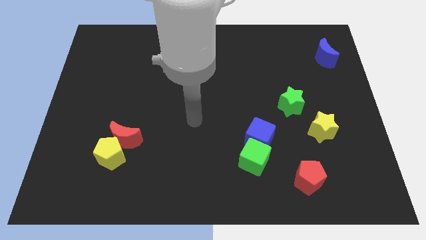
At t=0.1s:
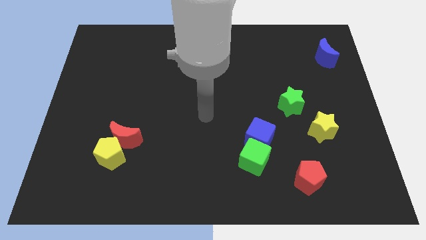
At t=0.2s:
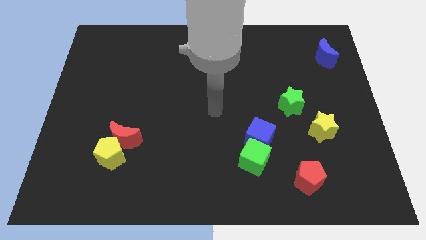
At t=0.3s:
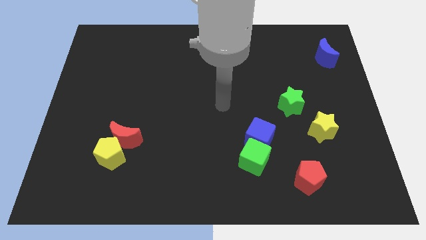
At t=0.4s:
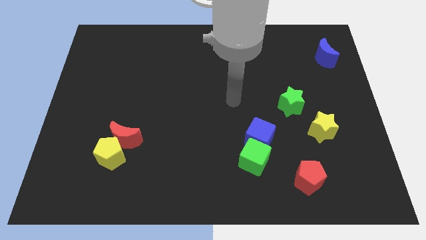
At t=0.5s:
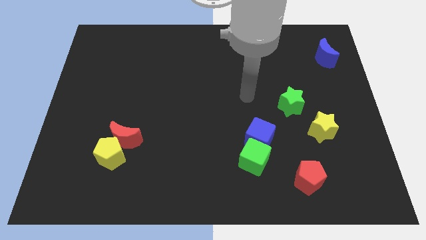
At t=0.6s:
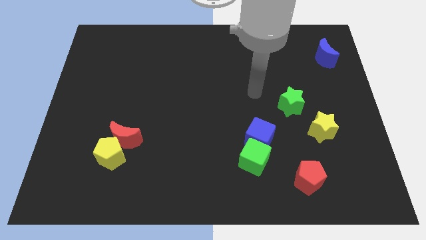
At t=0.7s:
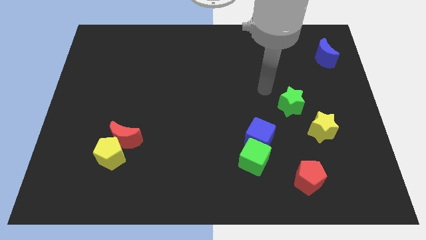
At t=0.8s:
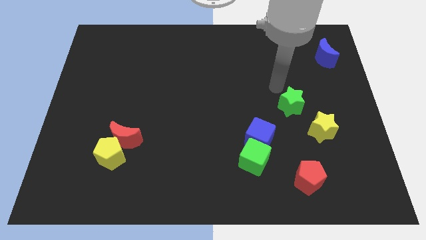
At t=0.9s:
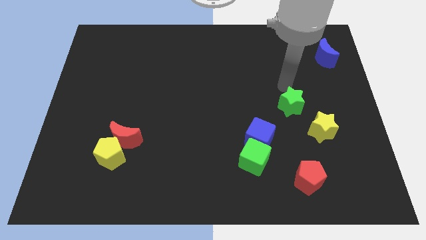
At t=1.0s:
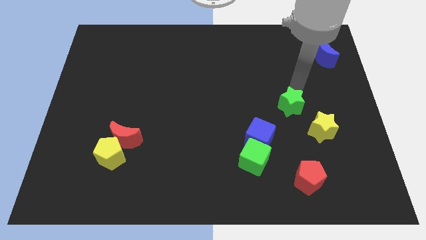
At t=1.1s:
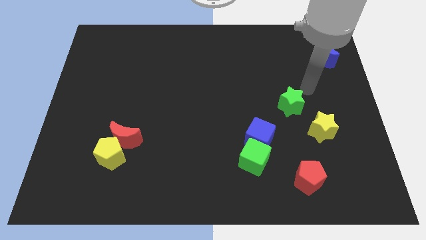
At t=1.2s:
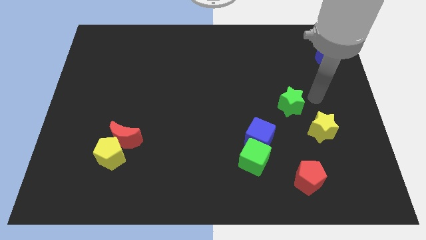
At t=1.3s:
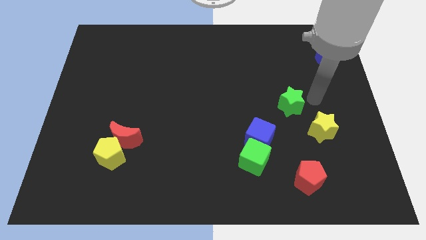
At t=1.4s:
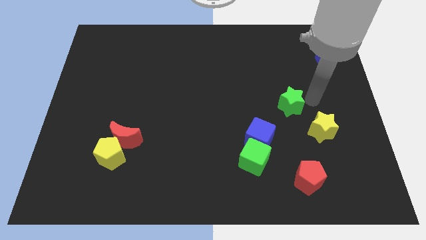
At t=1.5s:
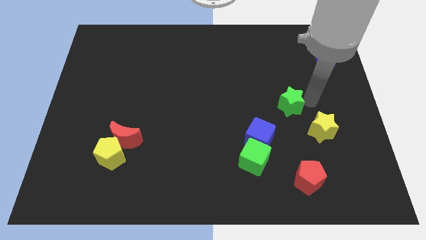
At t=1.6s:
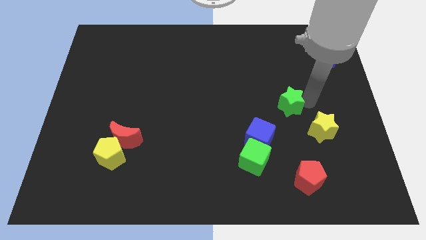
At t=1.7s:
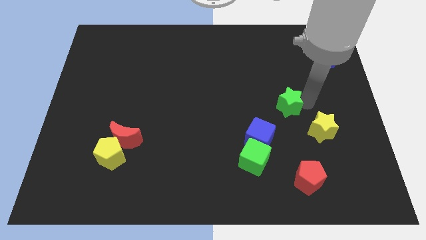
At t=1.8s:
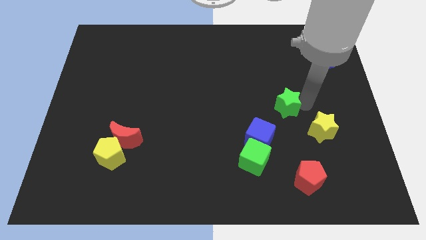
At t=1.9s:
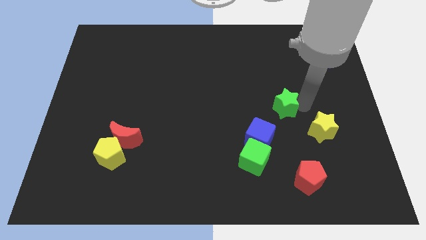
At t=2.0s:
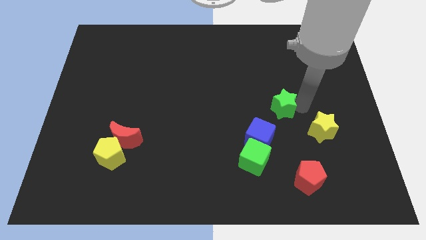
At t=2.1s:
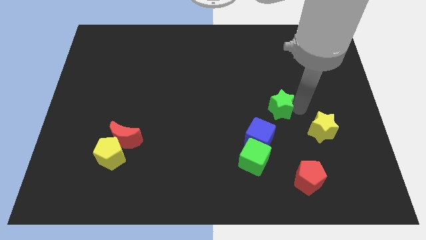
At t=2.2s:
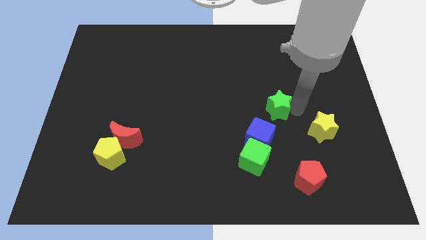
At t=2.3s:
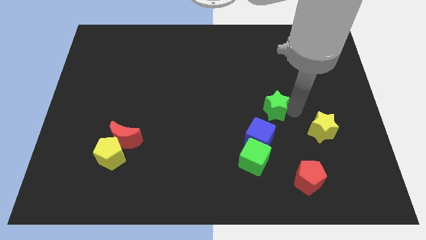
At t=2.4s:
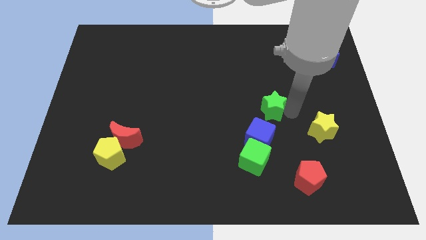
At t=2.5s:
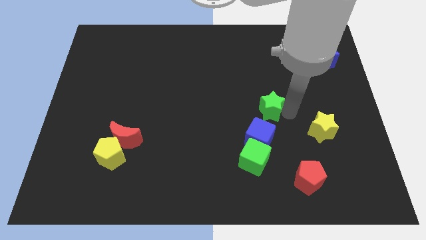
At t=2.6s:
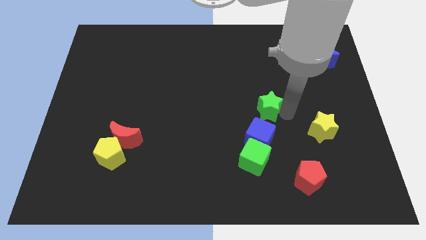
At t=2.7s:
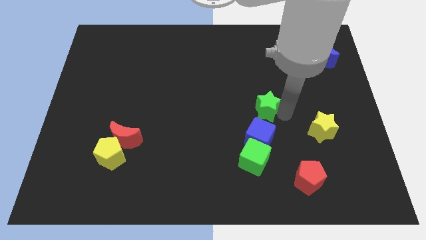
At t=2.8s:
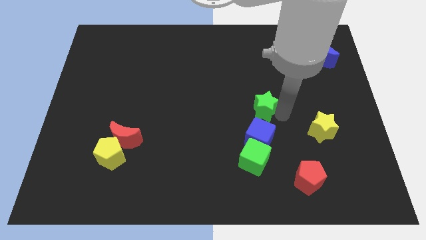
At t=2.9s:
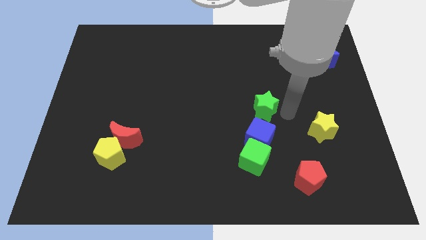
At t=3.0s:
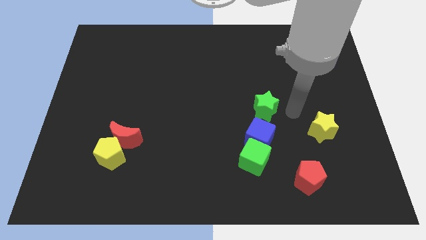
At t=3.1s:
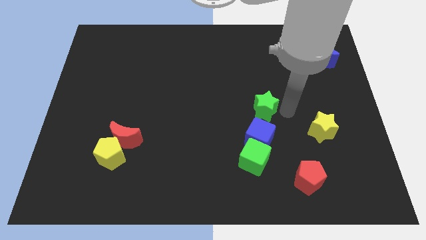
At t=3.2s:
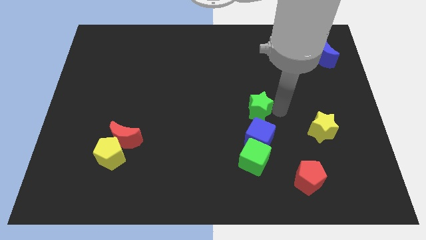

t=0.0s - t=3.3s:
slightly move the green star to the left

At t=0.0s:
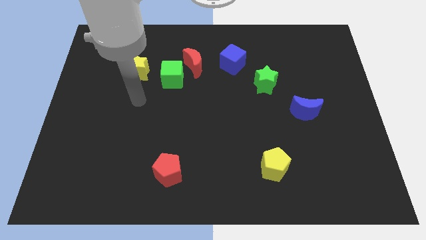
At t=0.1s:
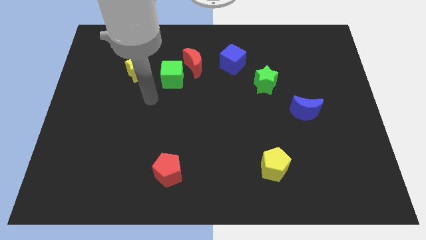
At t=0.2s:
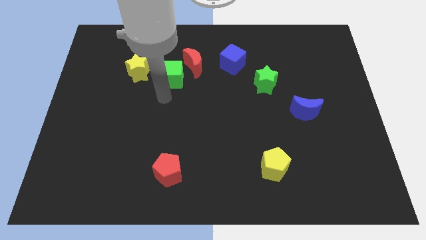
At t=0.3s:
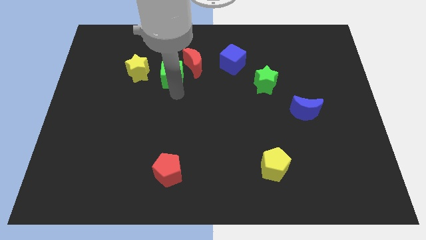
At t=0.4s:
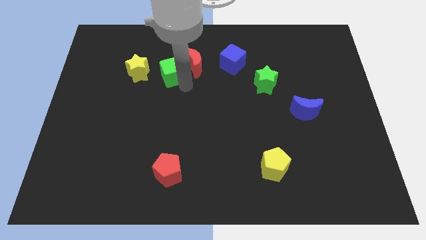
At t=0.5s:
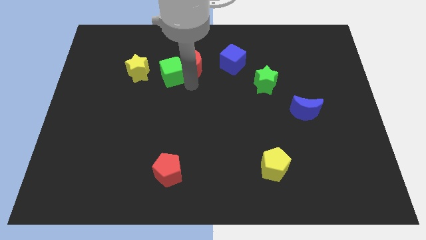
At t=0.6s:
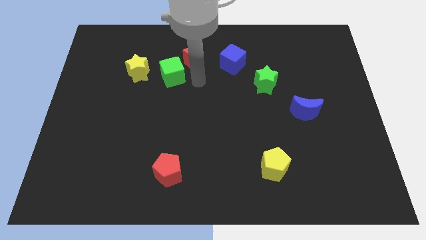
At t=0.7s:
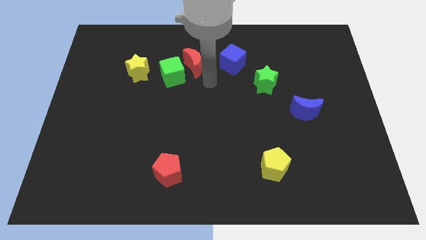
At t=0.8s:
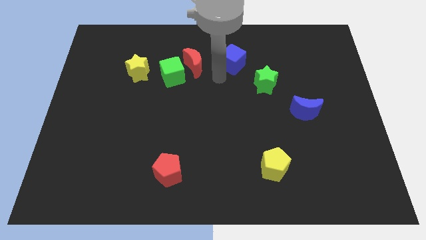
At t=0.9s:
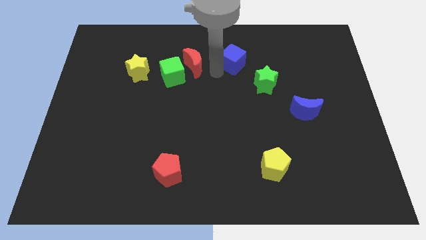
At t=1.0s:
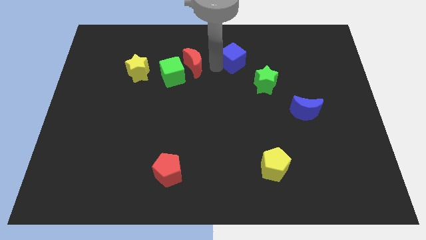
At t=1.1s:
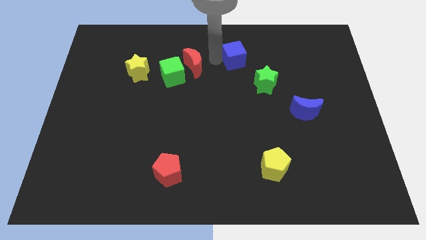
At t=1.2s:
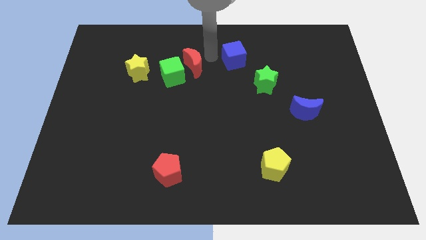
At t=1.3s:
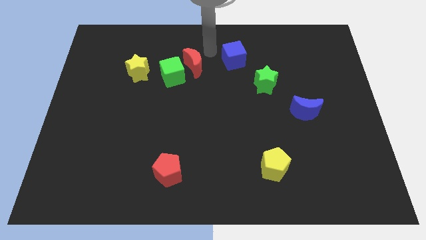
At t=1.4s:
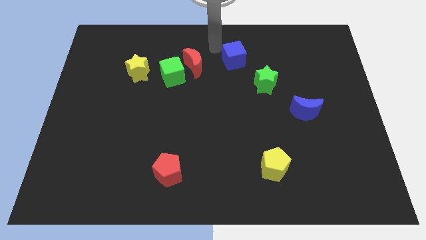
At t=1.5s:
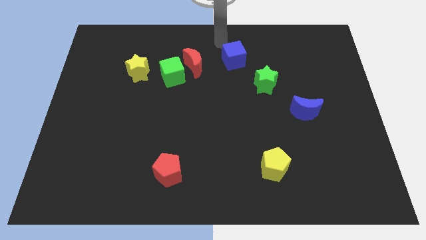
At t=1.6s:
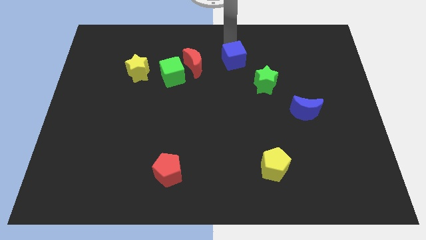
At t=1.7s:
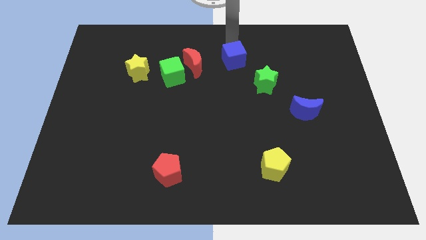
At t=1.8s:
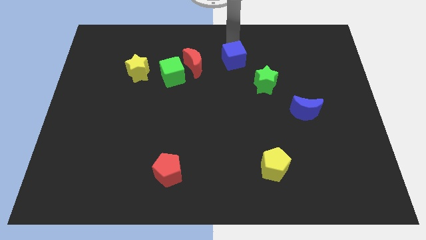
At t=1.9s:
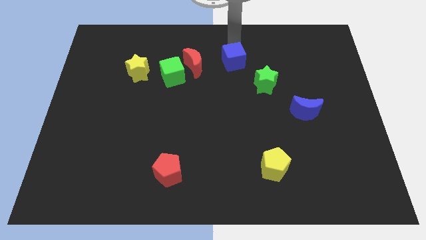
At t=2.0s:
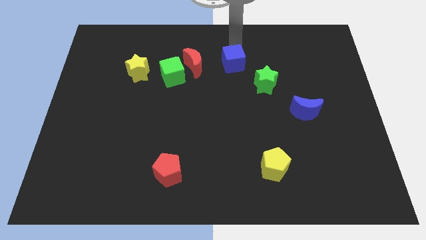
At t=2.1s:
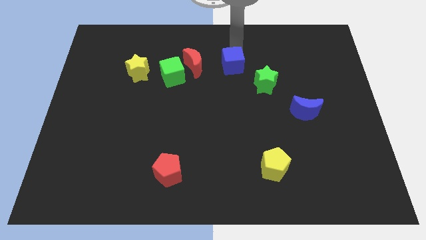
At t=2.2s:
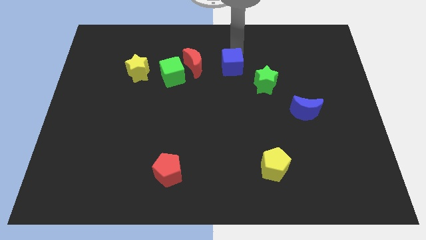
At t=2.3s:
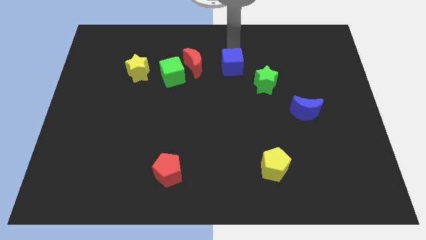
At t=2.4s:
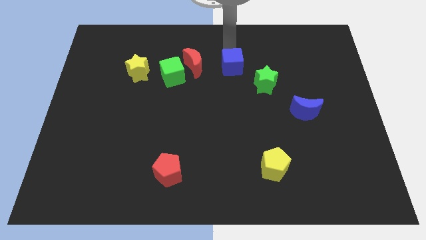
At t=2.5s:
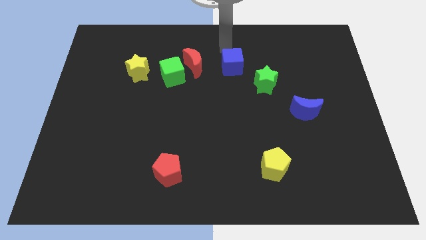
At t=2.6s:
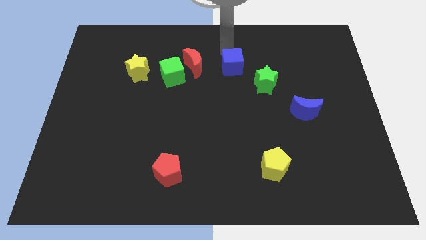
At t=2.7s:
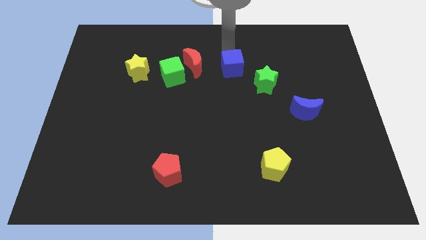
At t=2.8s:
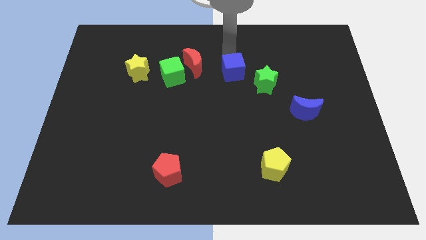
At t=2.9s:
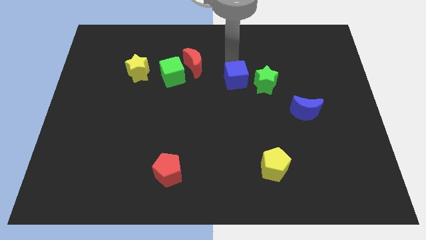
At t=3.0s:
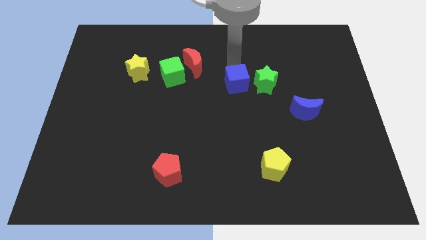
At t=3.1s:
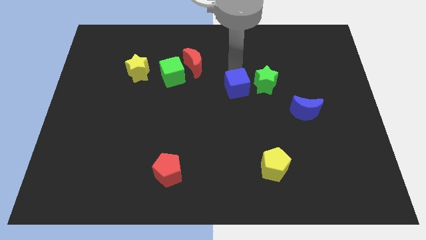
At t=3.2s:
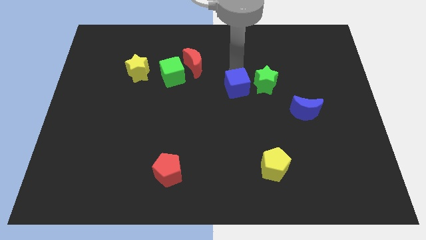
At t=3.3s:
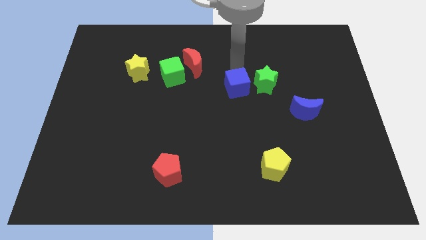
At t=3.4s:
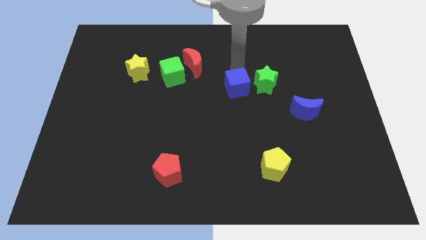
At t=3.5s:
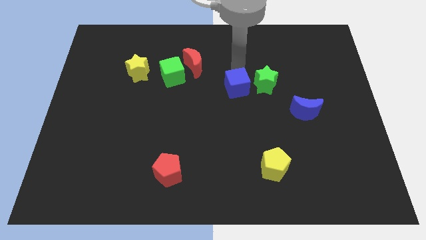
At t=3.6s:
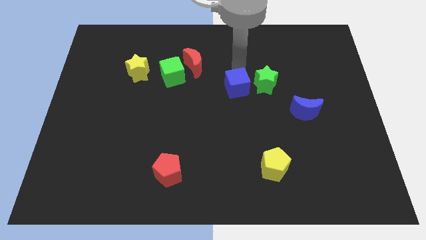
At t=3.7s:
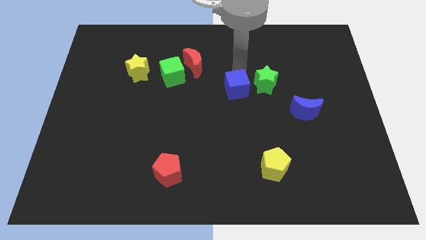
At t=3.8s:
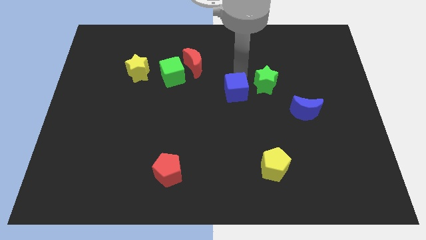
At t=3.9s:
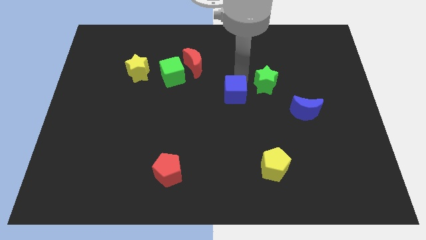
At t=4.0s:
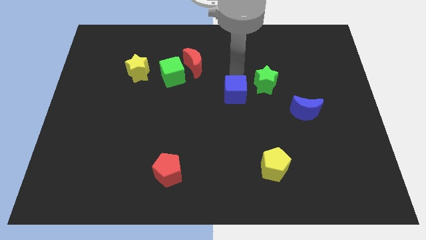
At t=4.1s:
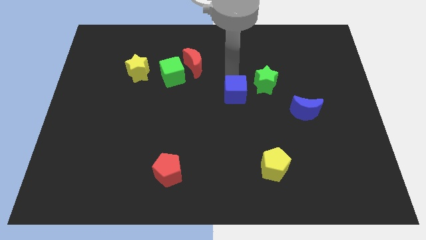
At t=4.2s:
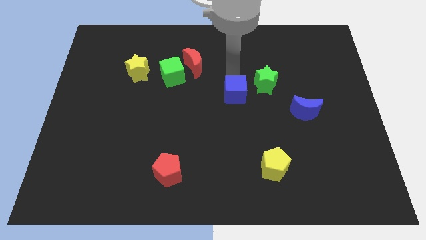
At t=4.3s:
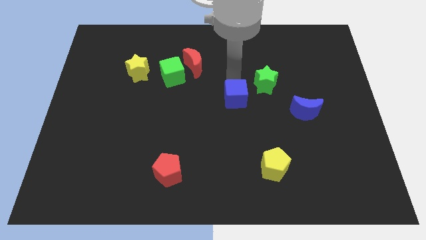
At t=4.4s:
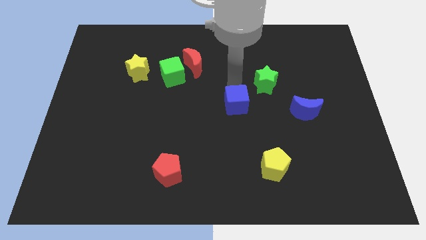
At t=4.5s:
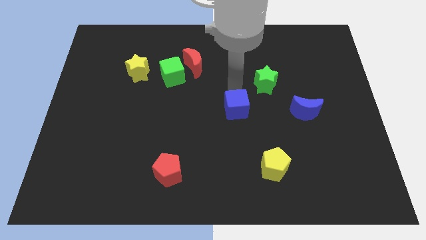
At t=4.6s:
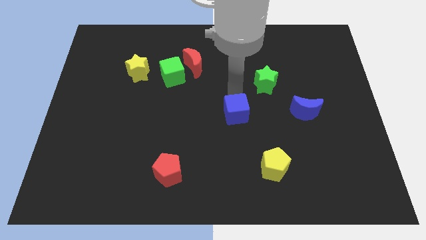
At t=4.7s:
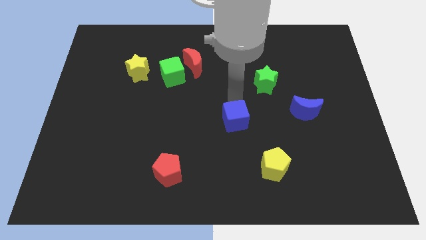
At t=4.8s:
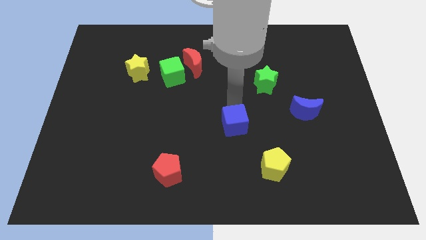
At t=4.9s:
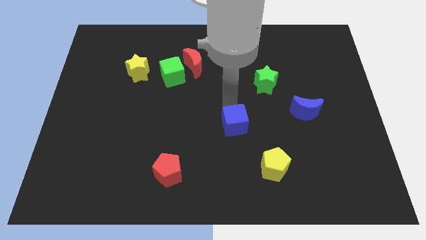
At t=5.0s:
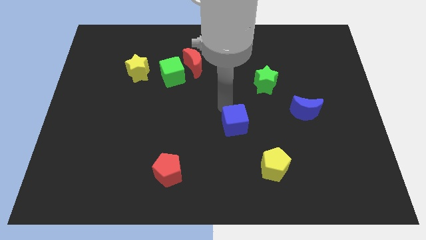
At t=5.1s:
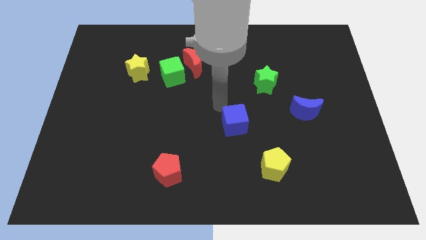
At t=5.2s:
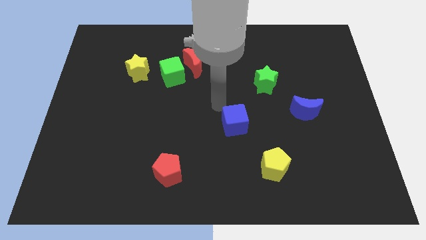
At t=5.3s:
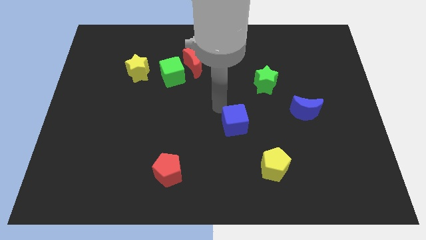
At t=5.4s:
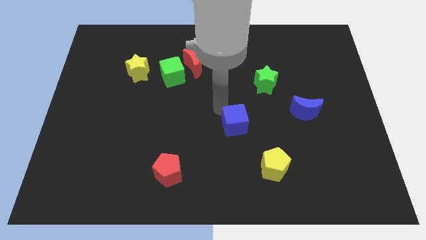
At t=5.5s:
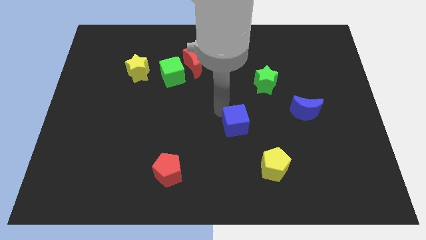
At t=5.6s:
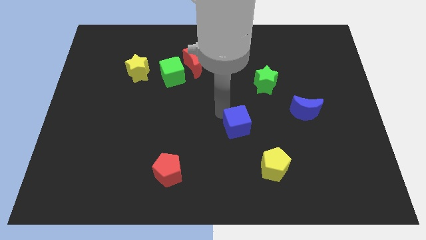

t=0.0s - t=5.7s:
move the blue cube downwards
